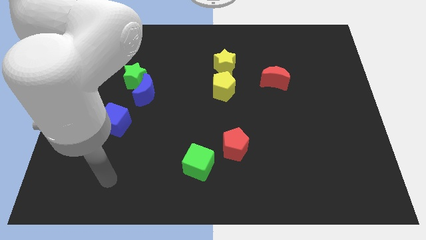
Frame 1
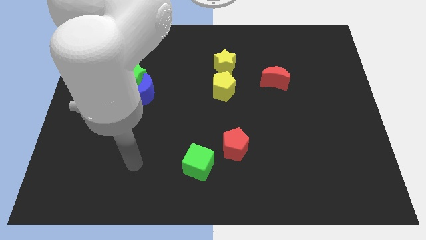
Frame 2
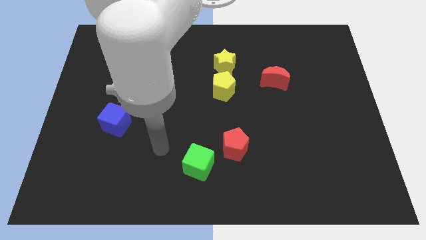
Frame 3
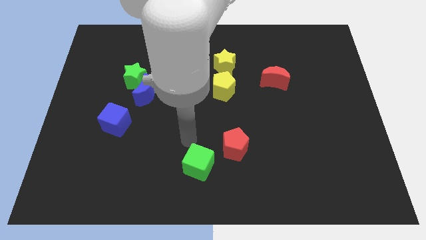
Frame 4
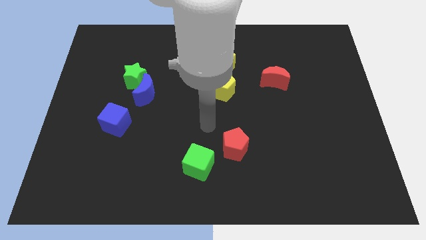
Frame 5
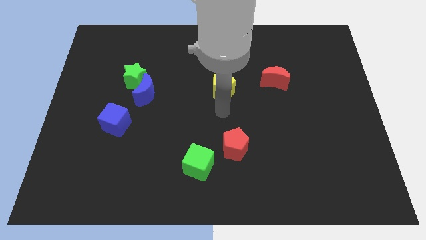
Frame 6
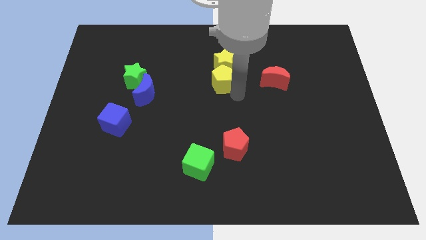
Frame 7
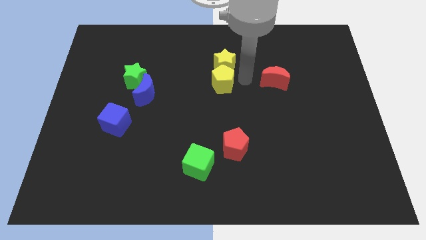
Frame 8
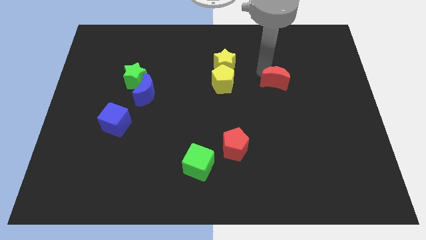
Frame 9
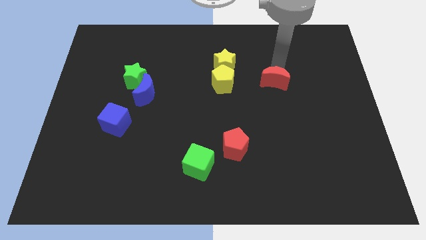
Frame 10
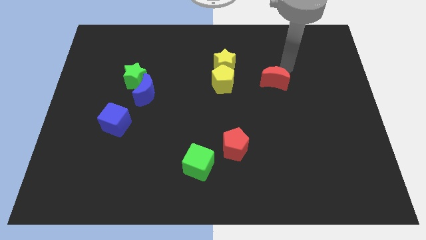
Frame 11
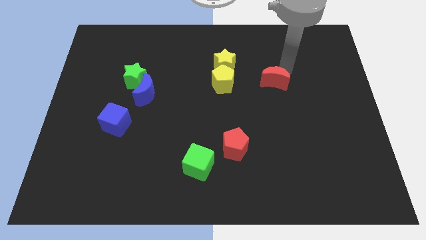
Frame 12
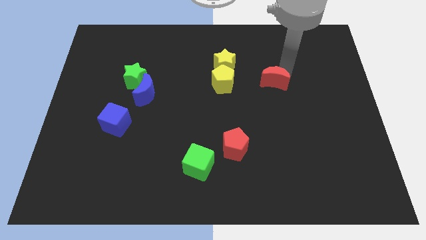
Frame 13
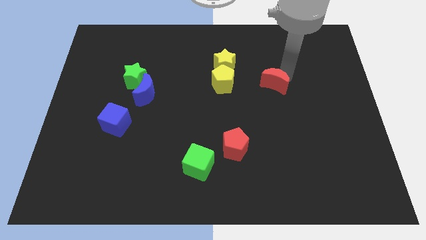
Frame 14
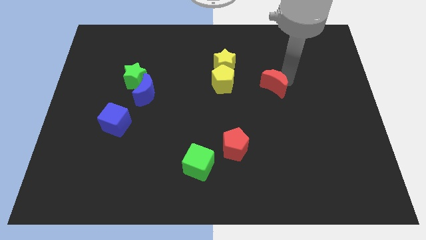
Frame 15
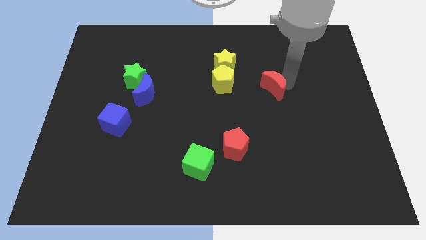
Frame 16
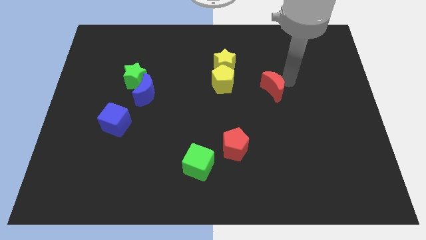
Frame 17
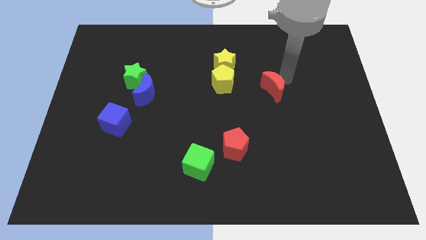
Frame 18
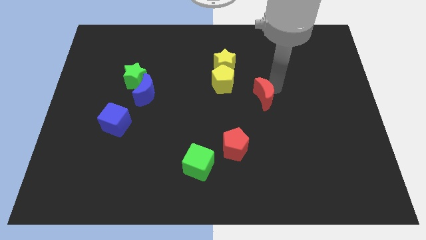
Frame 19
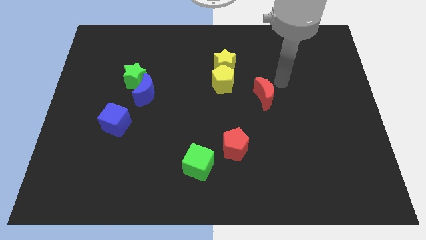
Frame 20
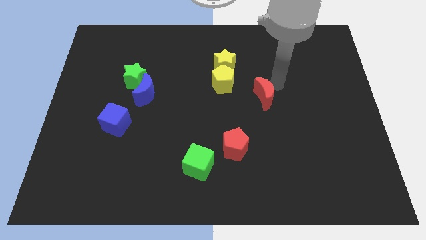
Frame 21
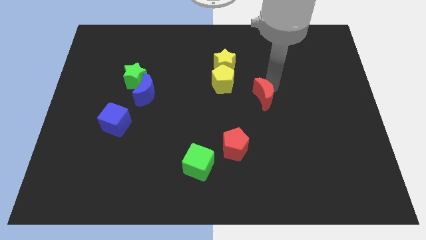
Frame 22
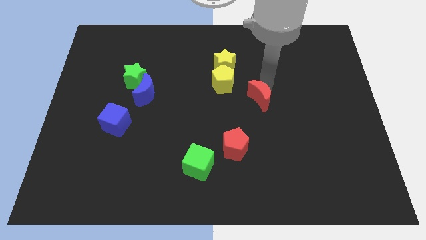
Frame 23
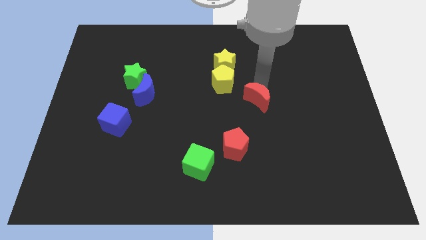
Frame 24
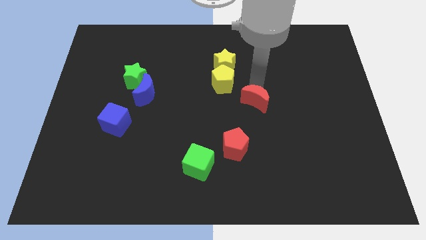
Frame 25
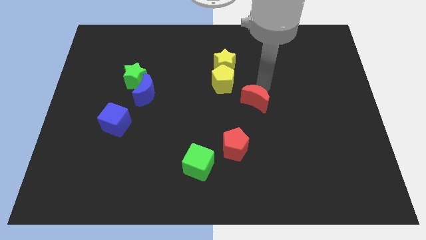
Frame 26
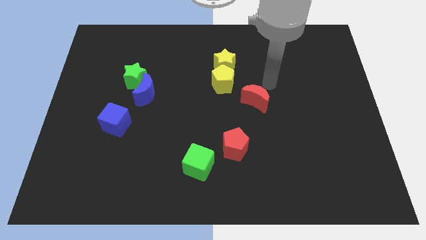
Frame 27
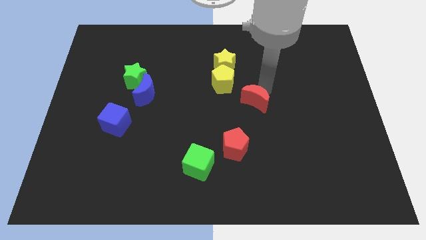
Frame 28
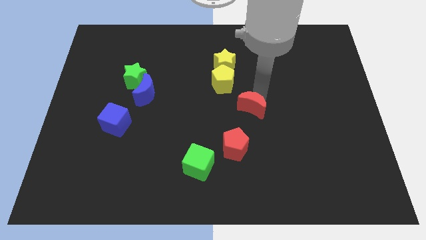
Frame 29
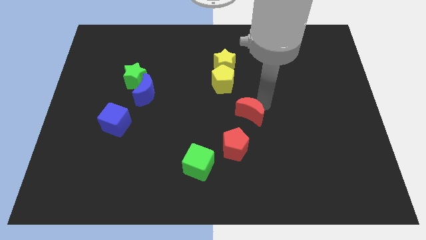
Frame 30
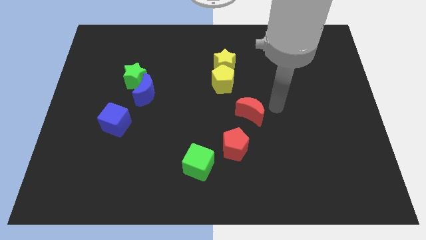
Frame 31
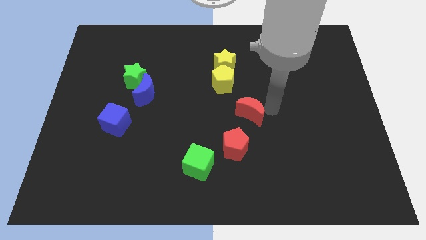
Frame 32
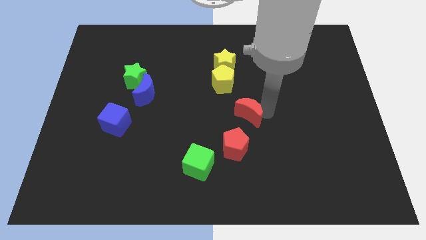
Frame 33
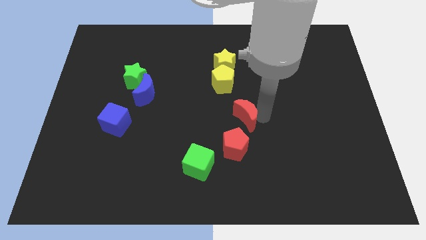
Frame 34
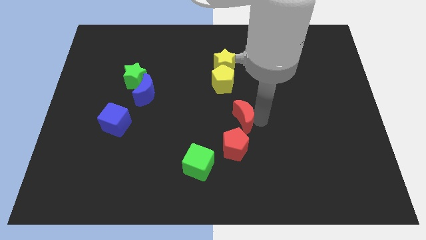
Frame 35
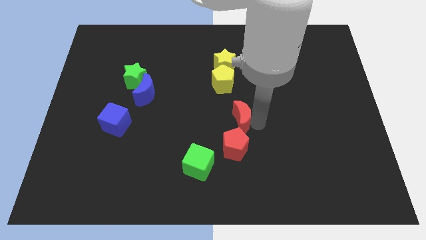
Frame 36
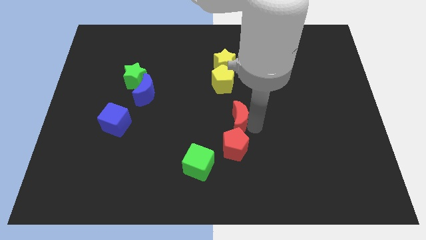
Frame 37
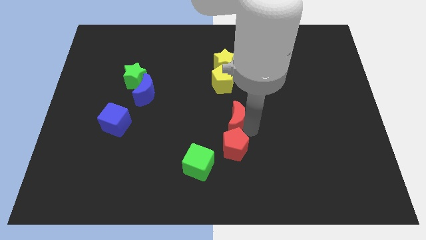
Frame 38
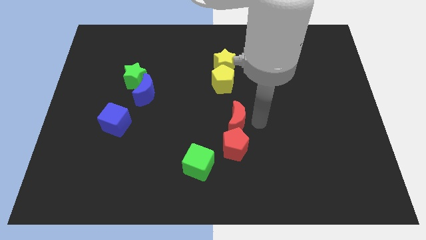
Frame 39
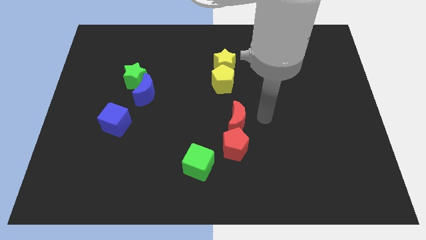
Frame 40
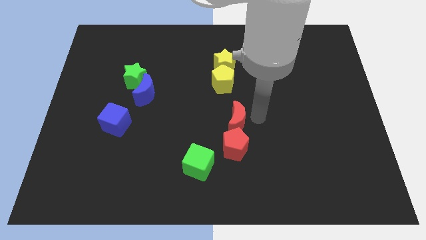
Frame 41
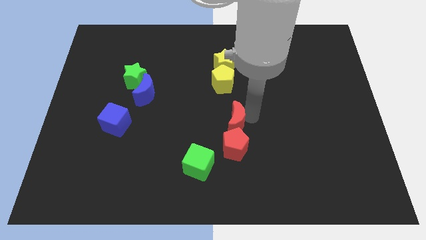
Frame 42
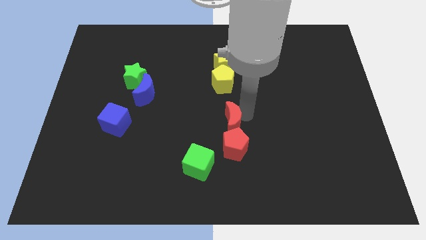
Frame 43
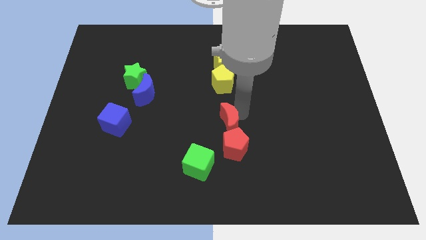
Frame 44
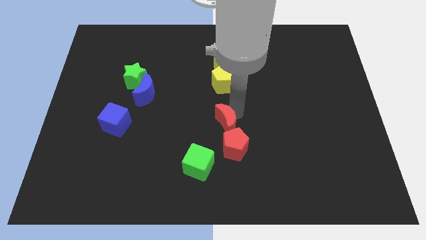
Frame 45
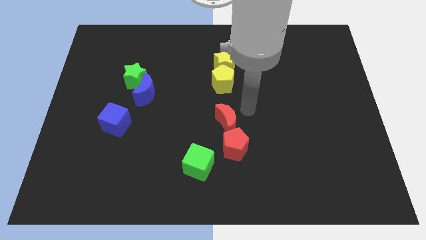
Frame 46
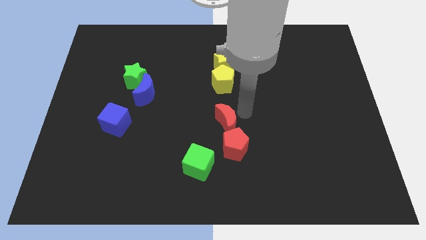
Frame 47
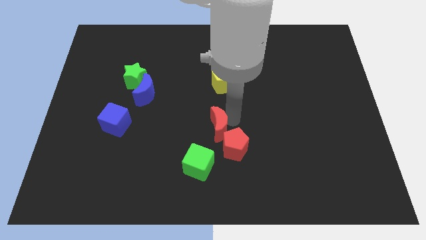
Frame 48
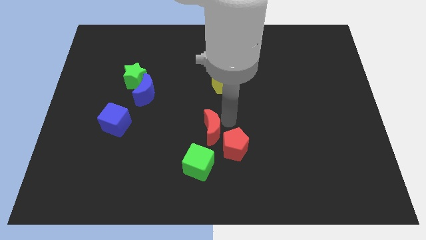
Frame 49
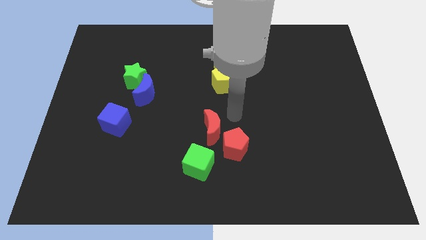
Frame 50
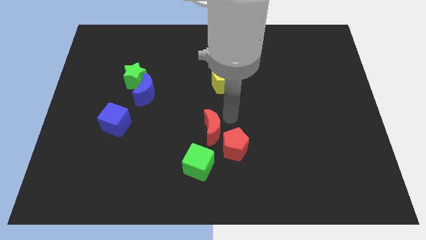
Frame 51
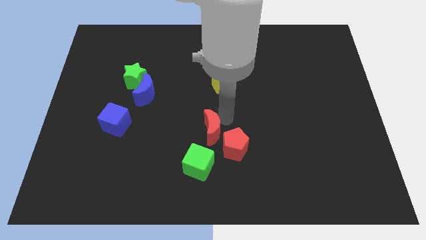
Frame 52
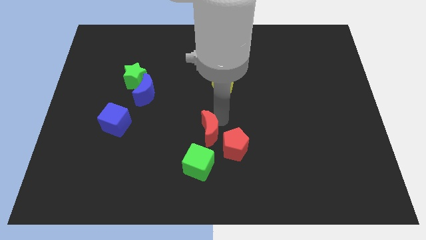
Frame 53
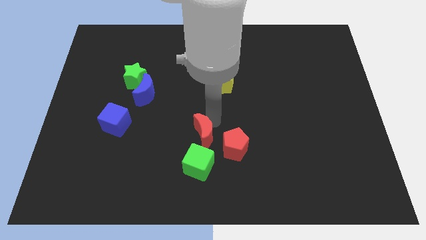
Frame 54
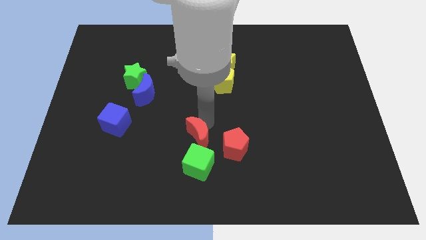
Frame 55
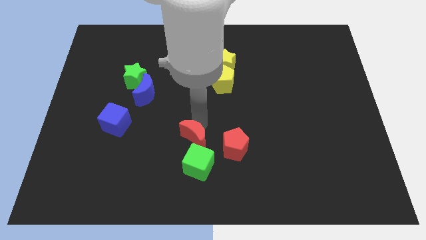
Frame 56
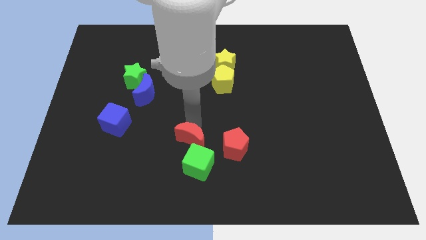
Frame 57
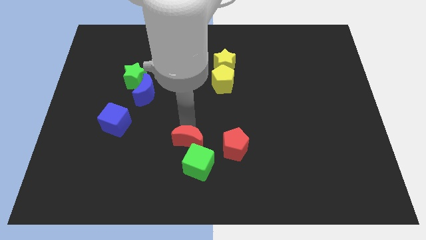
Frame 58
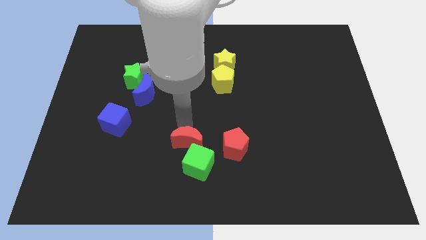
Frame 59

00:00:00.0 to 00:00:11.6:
move the red moon to the green cube

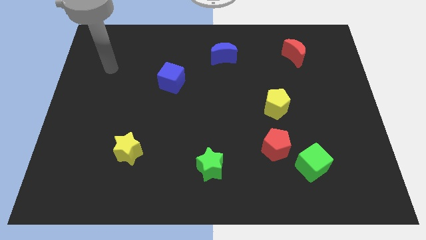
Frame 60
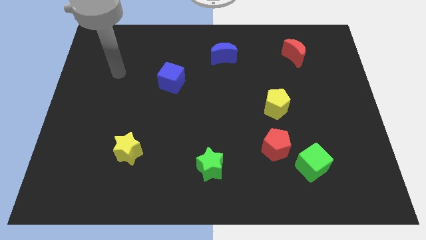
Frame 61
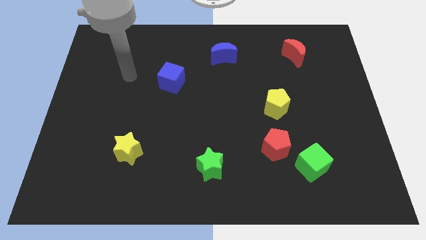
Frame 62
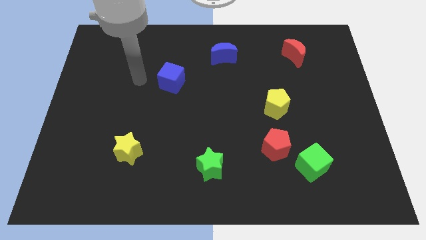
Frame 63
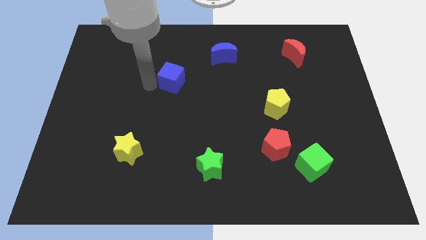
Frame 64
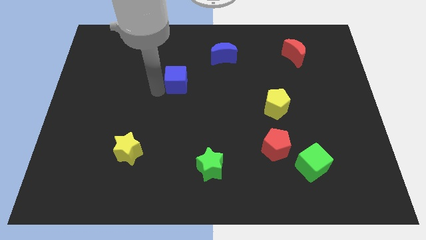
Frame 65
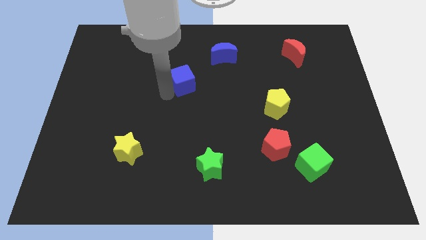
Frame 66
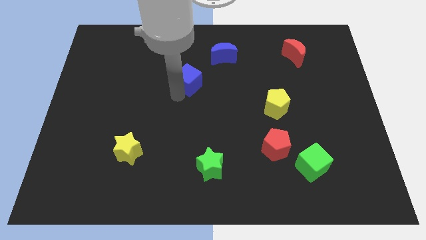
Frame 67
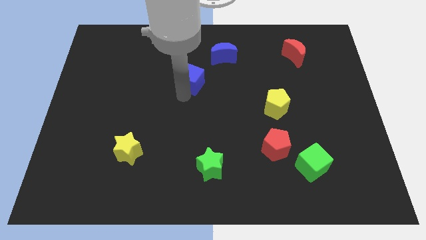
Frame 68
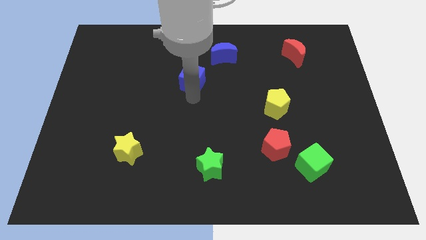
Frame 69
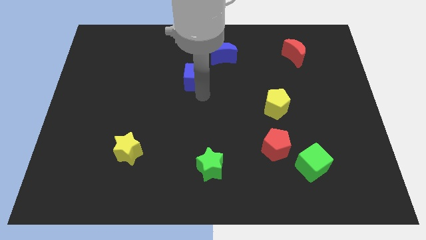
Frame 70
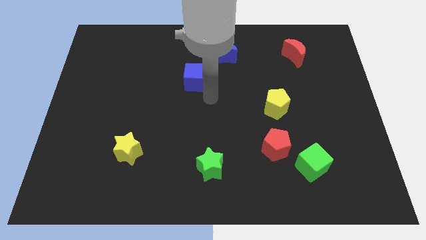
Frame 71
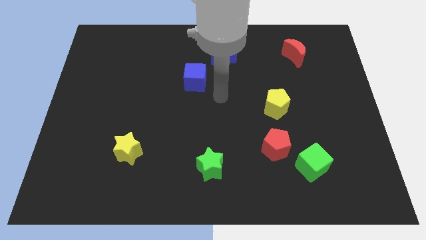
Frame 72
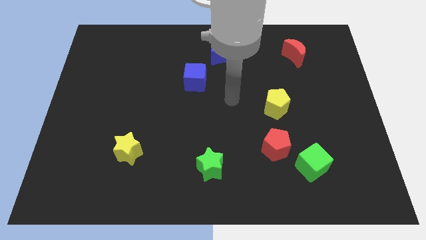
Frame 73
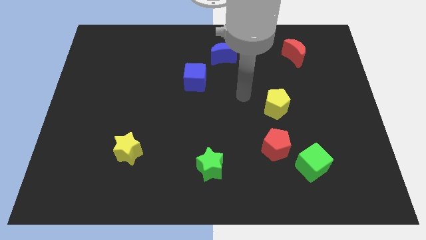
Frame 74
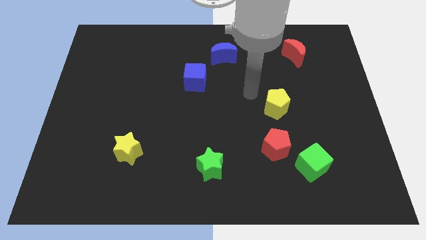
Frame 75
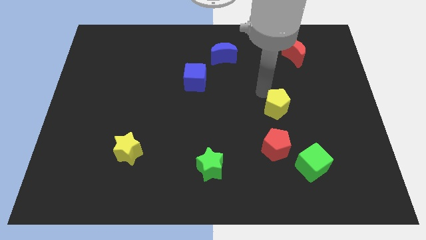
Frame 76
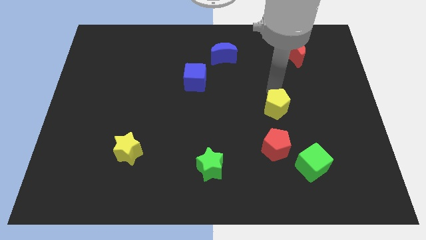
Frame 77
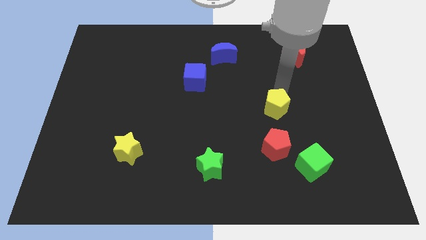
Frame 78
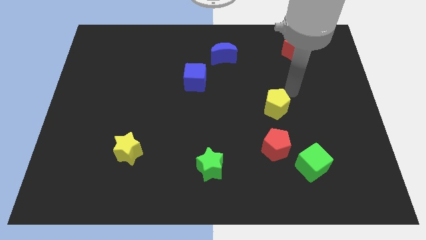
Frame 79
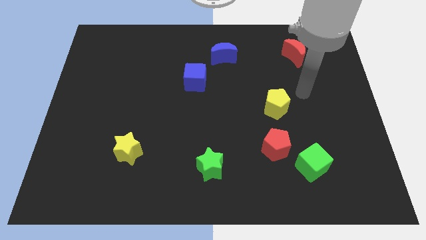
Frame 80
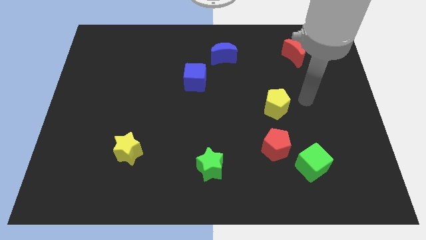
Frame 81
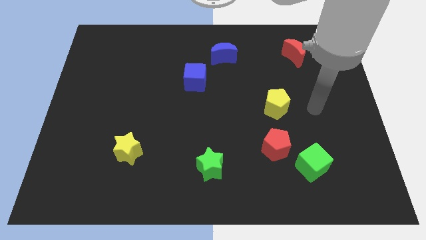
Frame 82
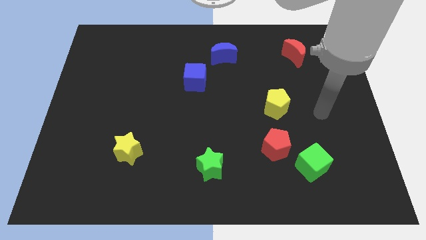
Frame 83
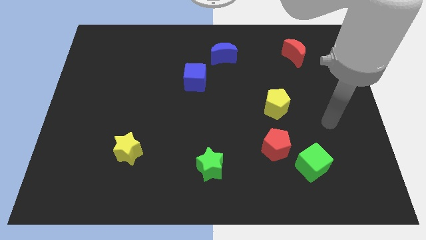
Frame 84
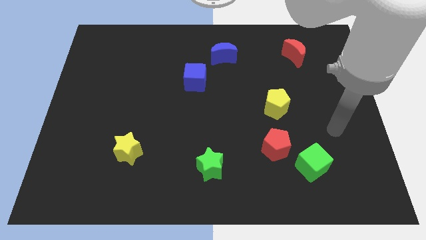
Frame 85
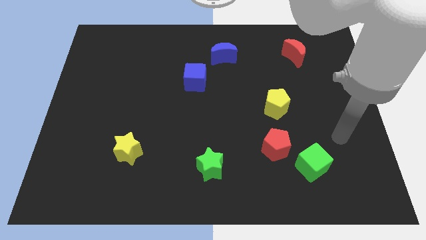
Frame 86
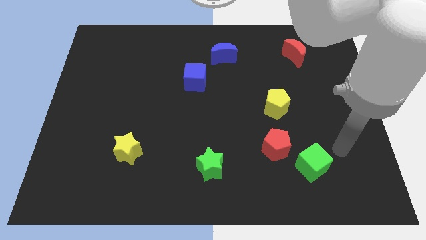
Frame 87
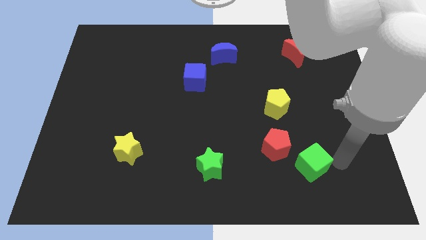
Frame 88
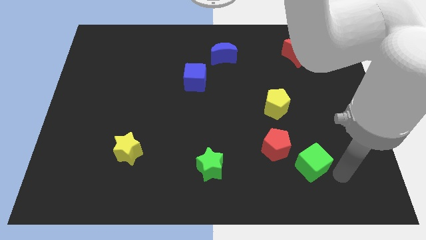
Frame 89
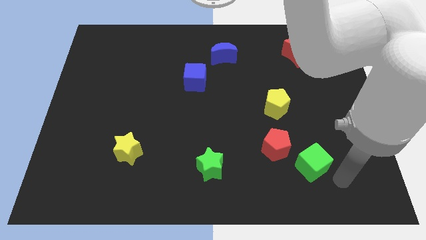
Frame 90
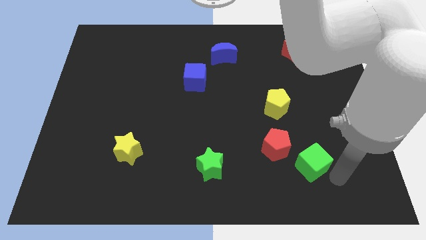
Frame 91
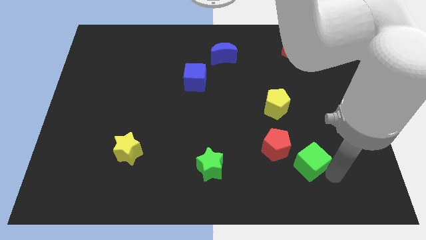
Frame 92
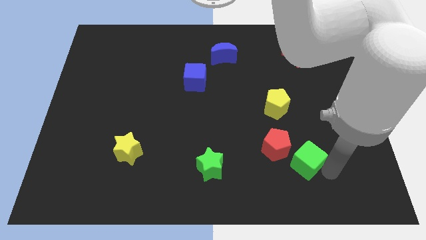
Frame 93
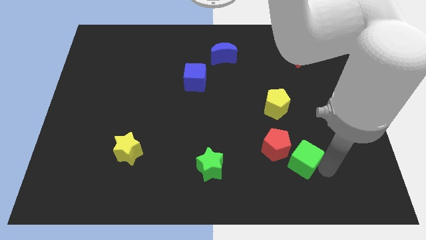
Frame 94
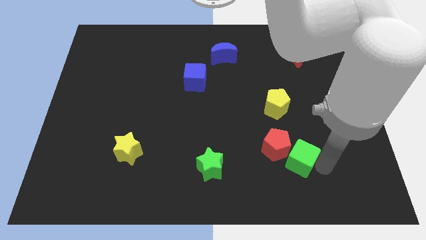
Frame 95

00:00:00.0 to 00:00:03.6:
push the green cube next to the red pentagon
